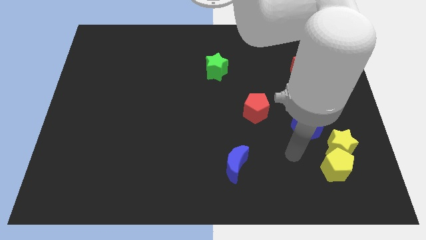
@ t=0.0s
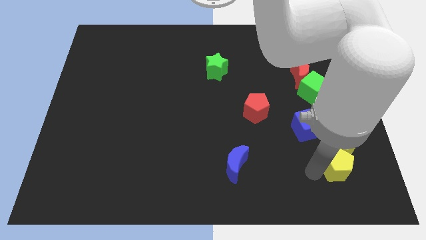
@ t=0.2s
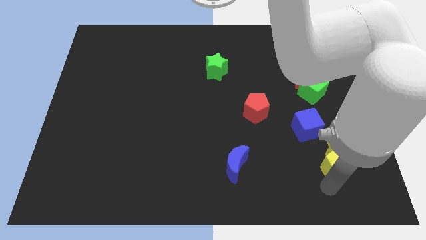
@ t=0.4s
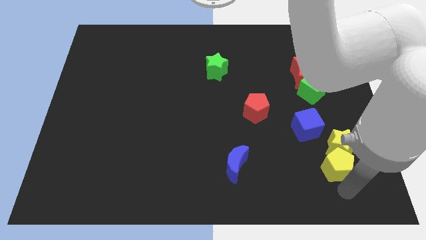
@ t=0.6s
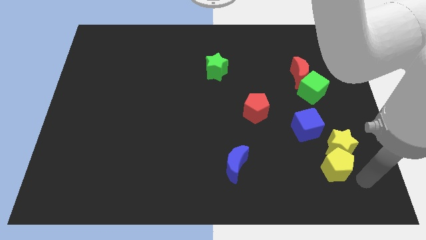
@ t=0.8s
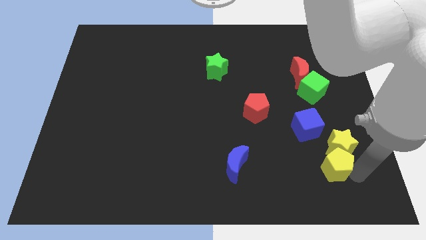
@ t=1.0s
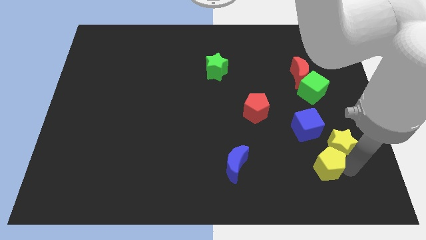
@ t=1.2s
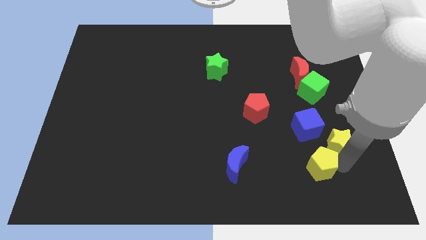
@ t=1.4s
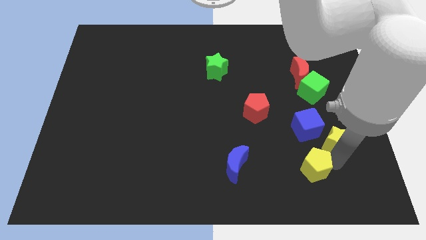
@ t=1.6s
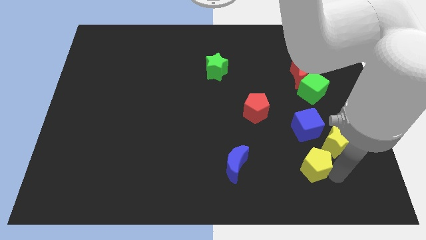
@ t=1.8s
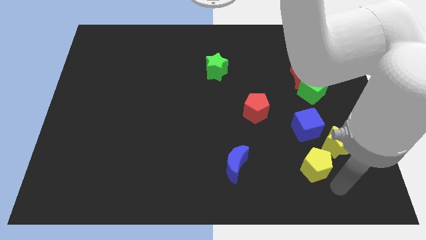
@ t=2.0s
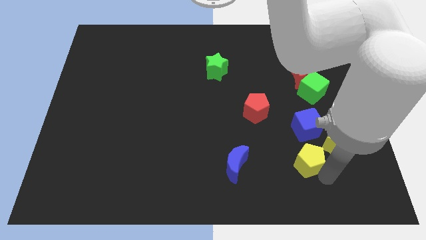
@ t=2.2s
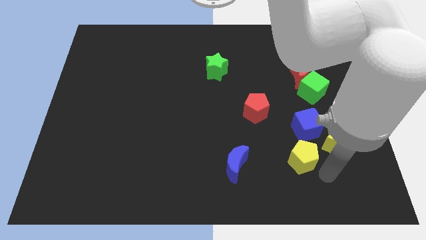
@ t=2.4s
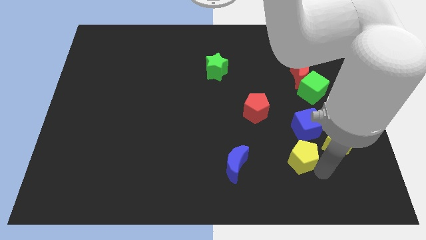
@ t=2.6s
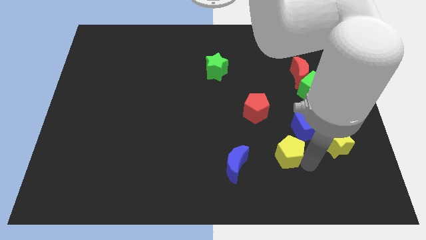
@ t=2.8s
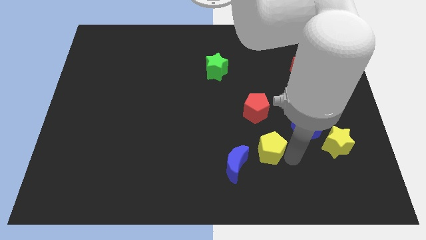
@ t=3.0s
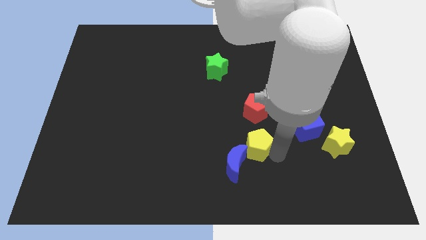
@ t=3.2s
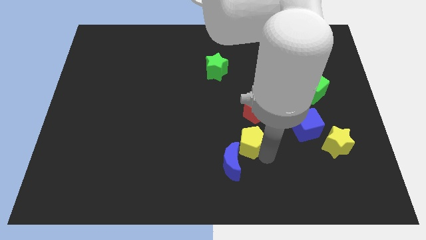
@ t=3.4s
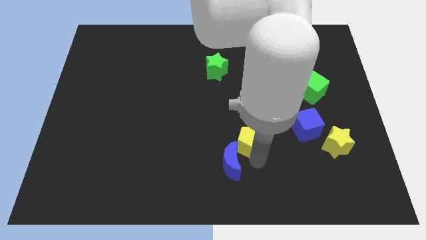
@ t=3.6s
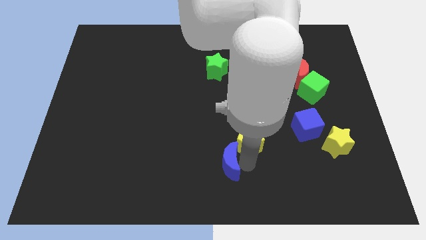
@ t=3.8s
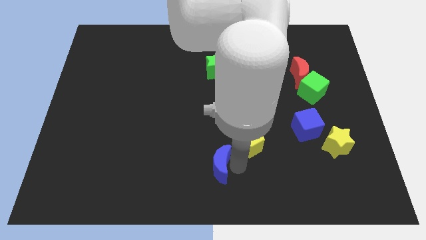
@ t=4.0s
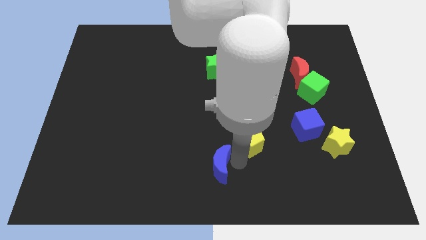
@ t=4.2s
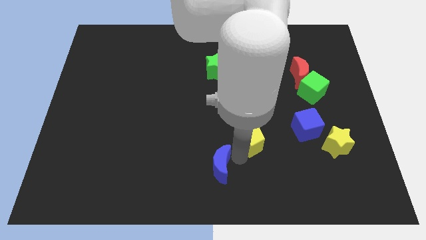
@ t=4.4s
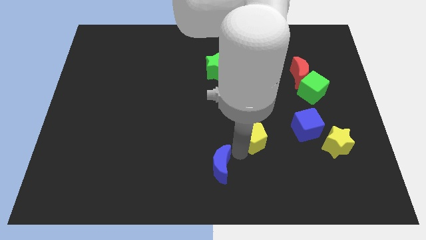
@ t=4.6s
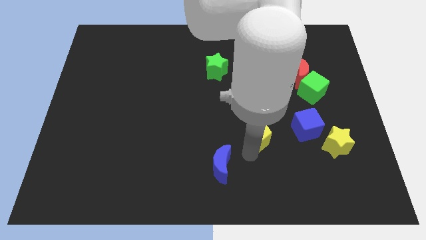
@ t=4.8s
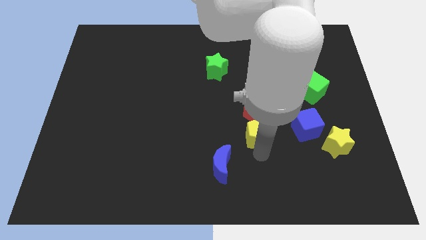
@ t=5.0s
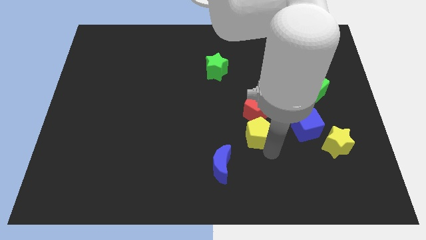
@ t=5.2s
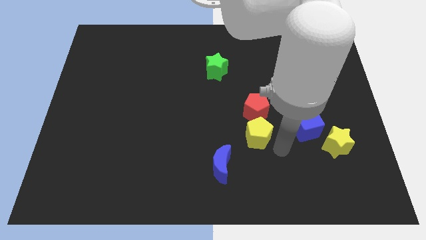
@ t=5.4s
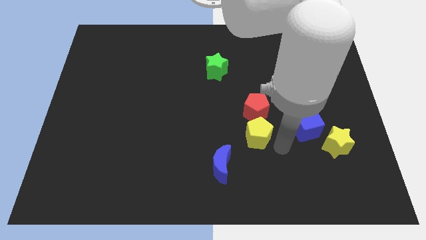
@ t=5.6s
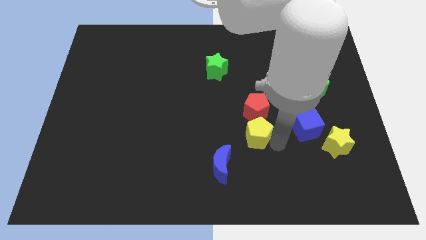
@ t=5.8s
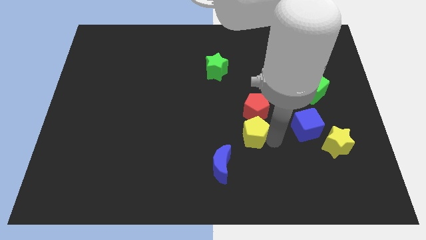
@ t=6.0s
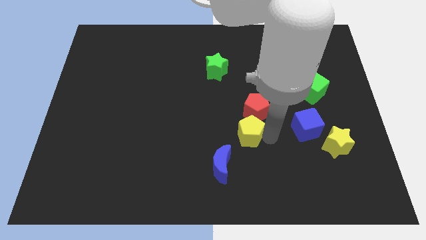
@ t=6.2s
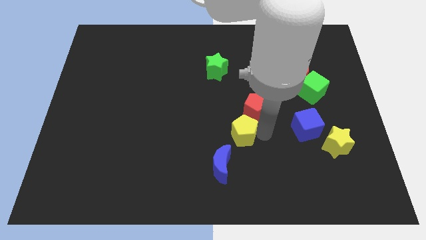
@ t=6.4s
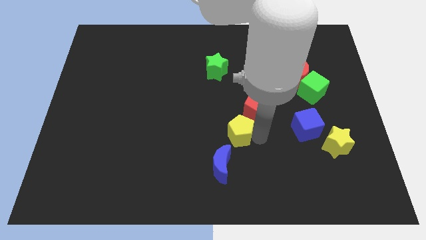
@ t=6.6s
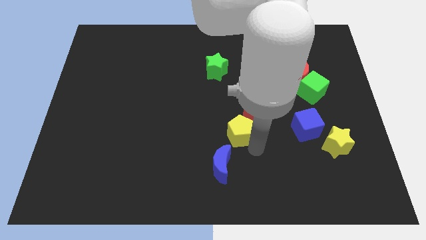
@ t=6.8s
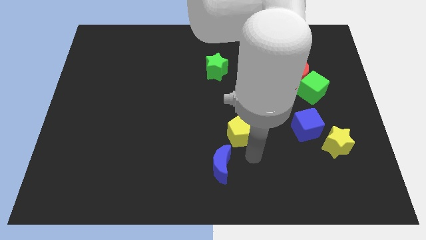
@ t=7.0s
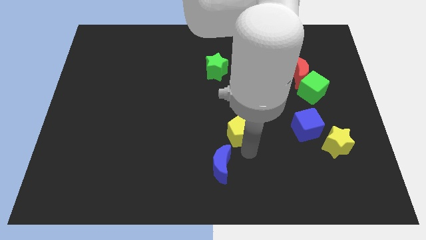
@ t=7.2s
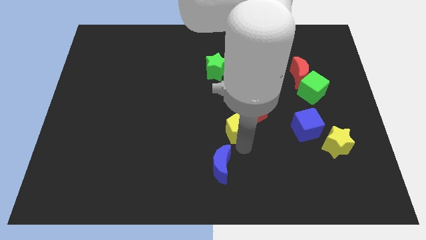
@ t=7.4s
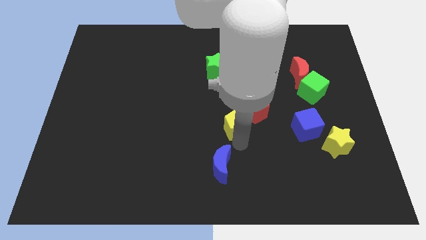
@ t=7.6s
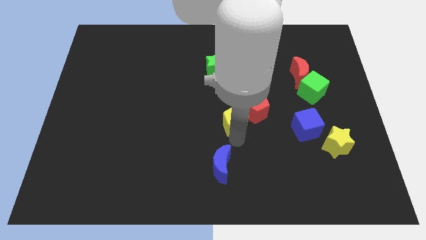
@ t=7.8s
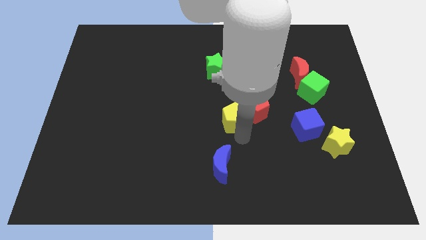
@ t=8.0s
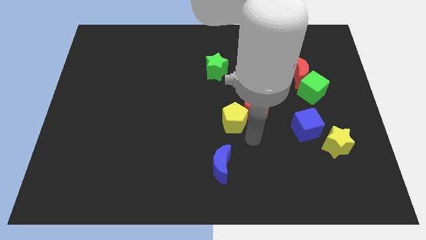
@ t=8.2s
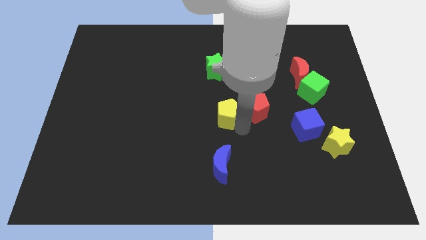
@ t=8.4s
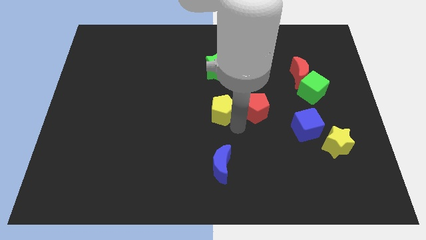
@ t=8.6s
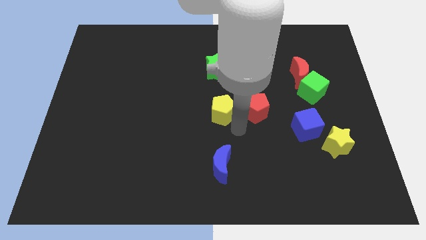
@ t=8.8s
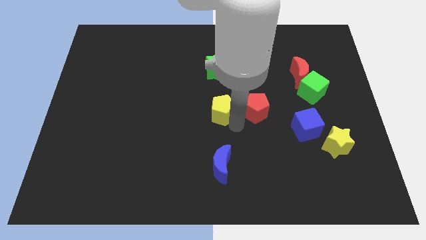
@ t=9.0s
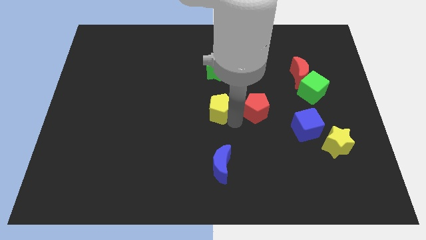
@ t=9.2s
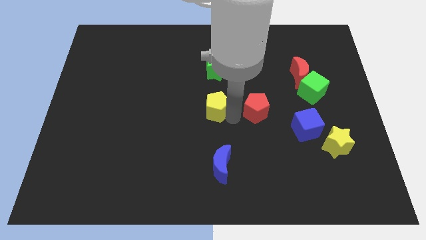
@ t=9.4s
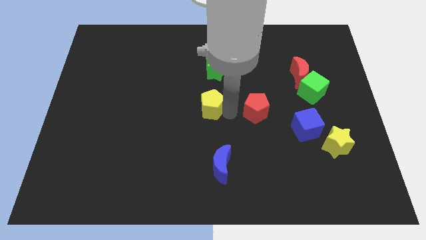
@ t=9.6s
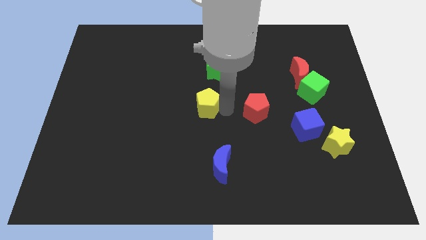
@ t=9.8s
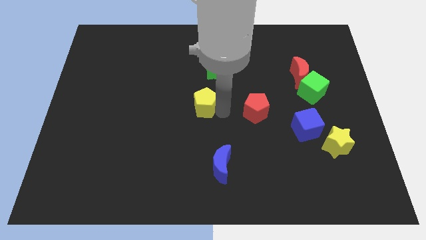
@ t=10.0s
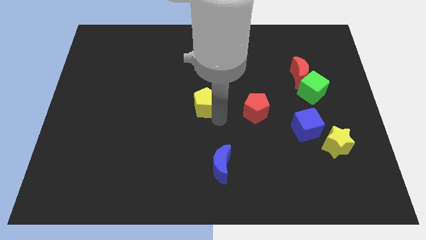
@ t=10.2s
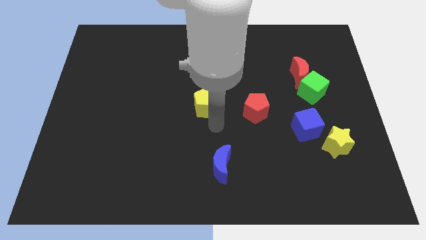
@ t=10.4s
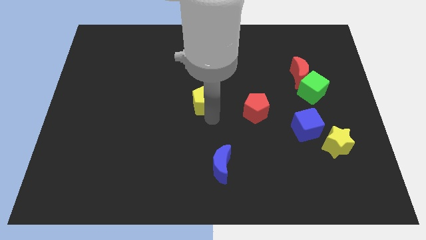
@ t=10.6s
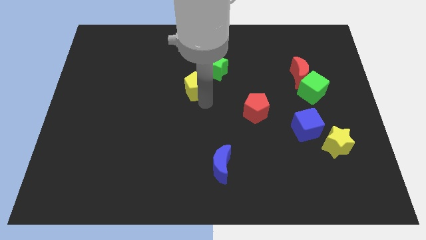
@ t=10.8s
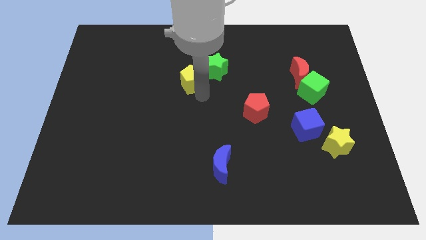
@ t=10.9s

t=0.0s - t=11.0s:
push the yellow pentagon just left of the green star

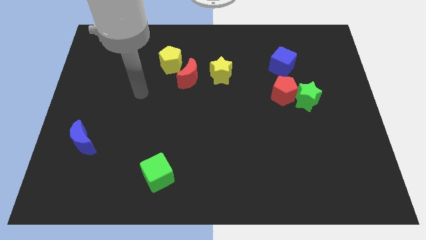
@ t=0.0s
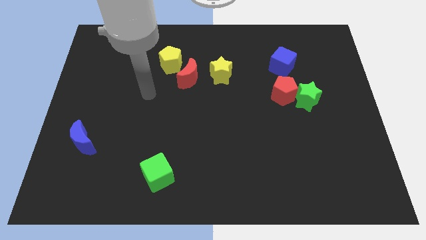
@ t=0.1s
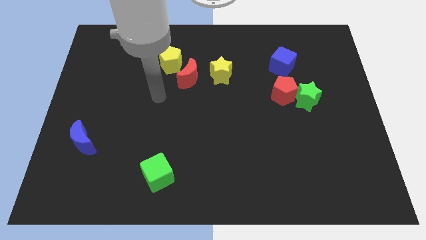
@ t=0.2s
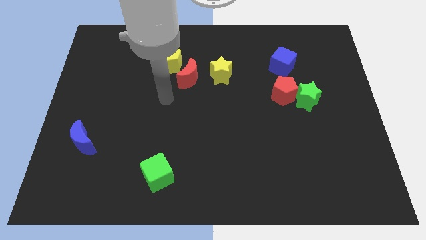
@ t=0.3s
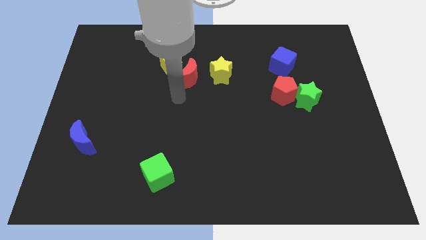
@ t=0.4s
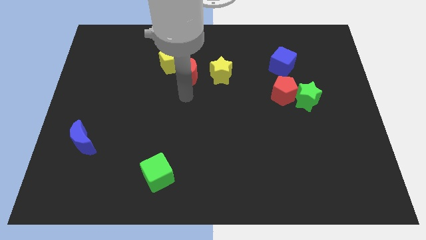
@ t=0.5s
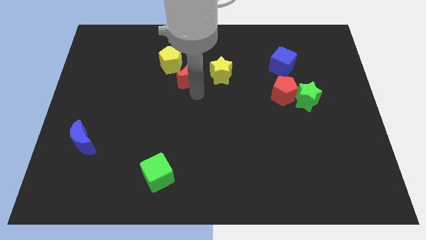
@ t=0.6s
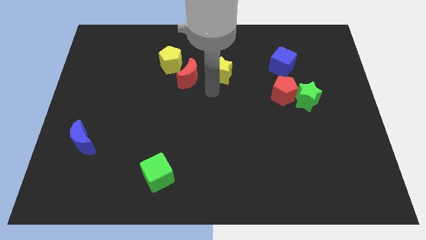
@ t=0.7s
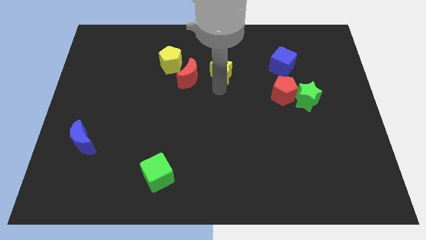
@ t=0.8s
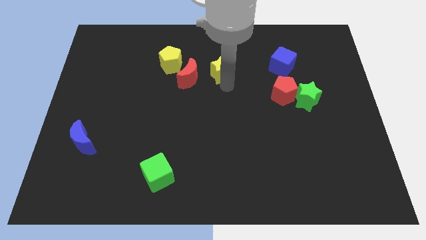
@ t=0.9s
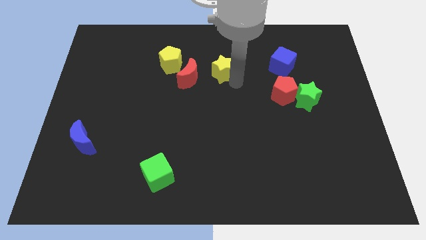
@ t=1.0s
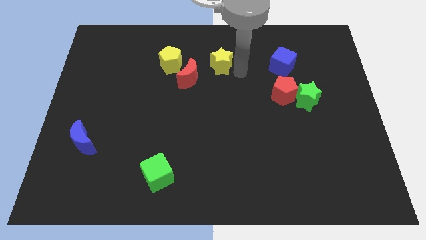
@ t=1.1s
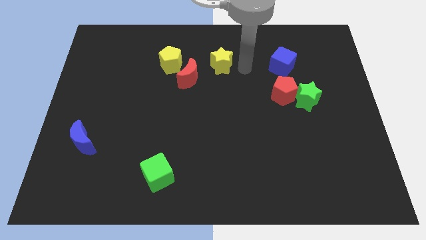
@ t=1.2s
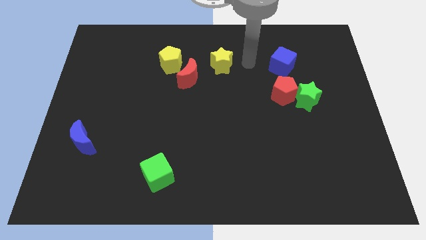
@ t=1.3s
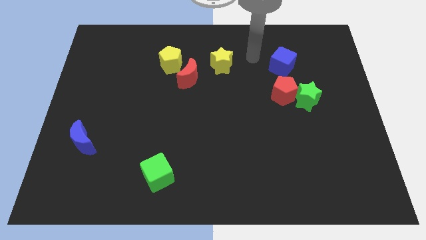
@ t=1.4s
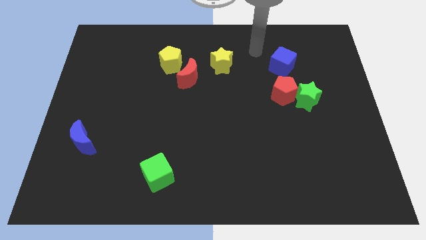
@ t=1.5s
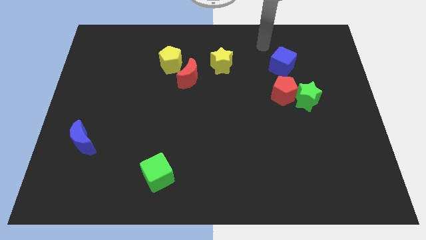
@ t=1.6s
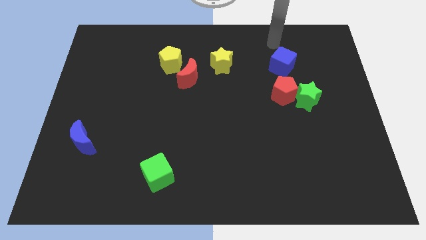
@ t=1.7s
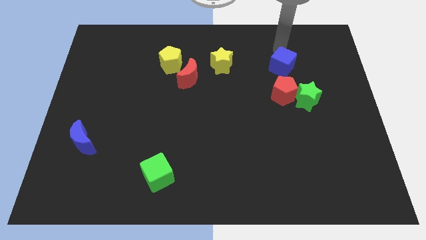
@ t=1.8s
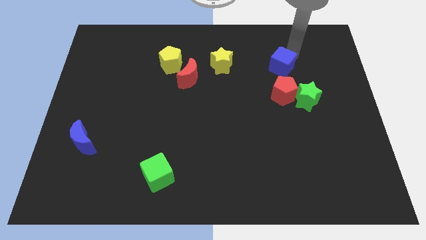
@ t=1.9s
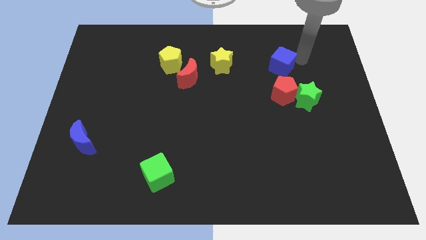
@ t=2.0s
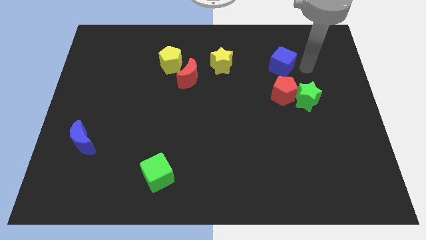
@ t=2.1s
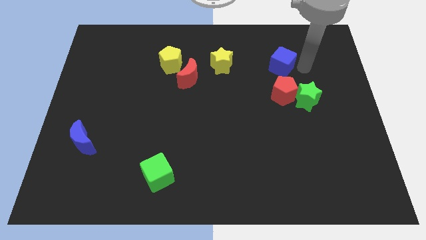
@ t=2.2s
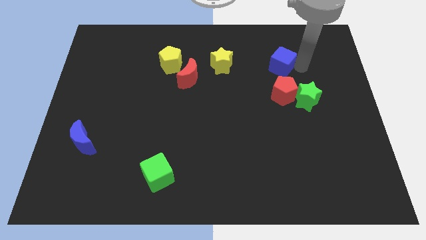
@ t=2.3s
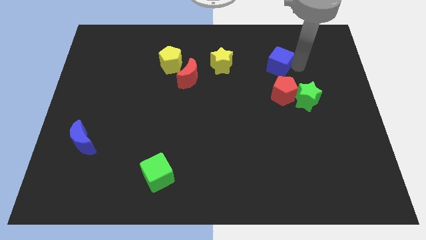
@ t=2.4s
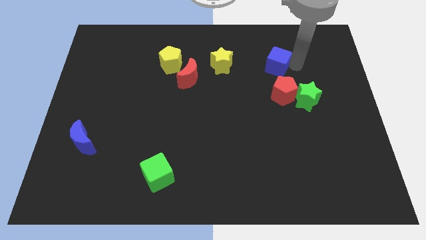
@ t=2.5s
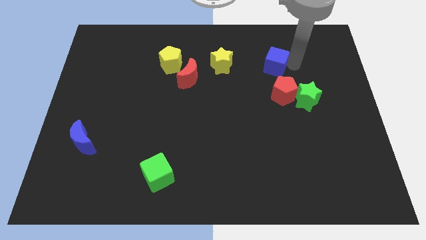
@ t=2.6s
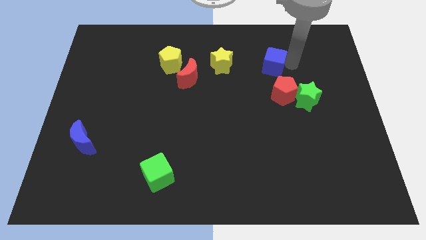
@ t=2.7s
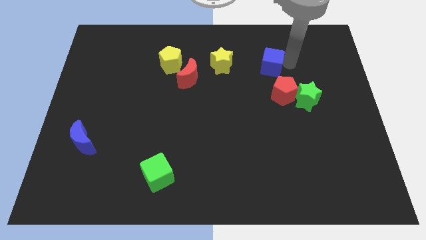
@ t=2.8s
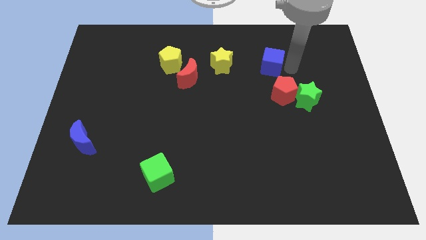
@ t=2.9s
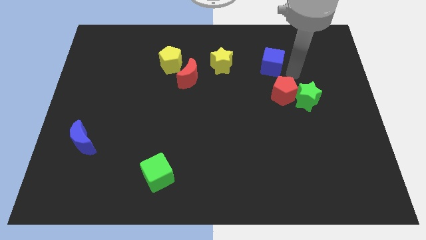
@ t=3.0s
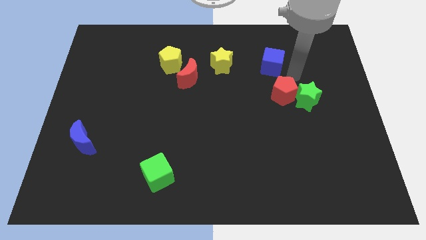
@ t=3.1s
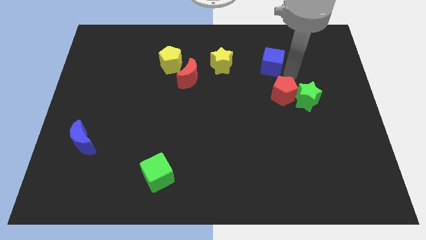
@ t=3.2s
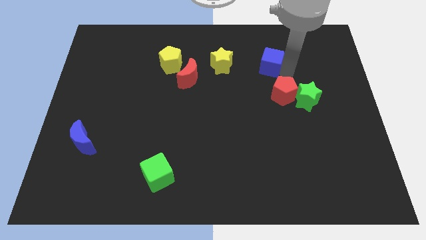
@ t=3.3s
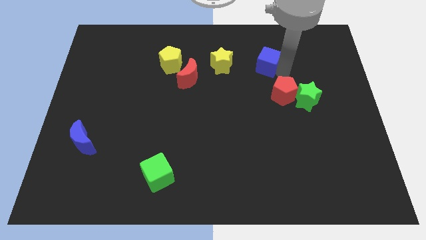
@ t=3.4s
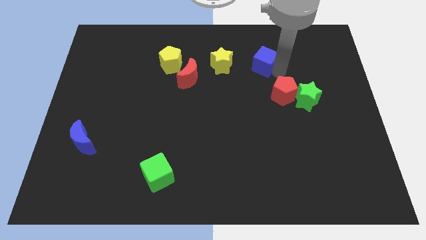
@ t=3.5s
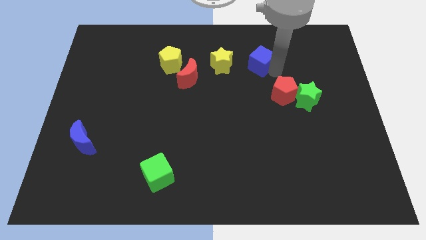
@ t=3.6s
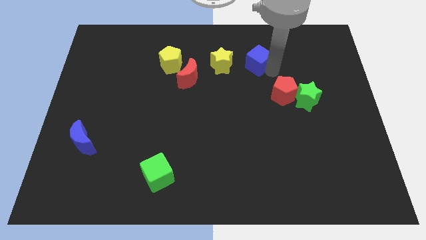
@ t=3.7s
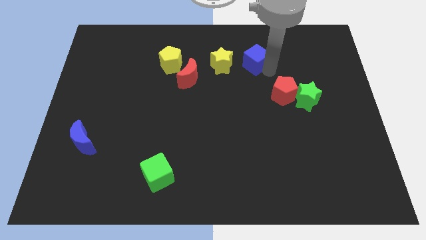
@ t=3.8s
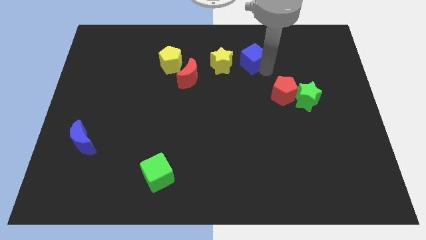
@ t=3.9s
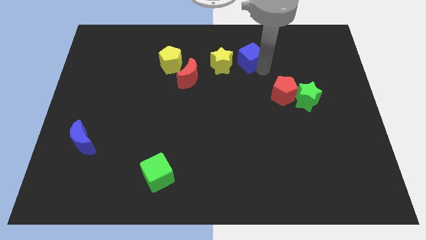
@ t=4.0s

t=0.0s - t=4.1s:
put the blue cube to the top right side of the yellow star
